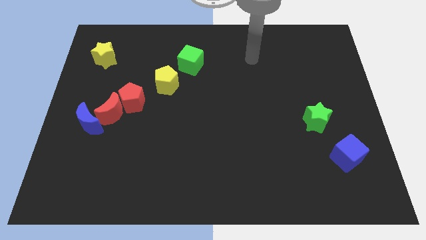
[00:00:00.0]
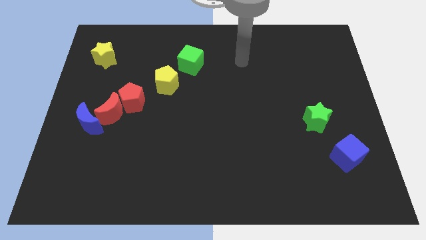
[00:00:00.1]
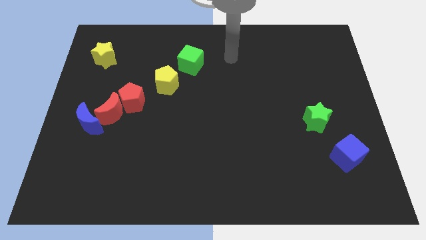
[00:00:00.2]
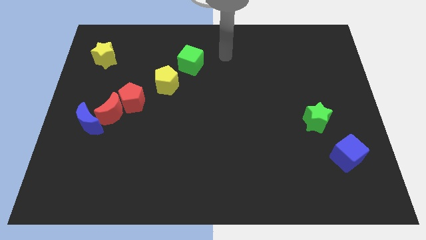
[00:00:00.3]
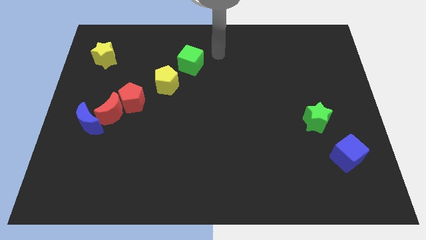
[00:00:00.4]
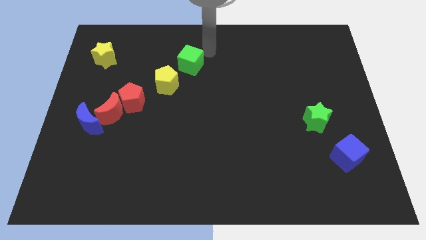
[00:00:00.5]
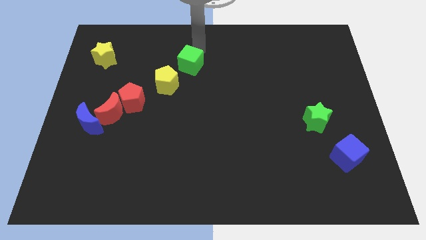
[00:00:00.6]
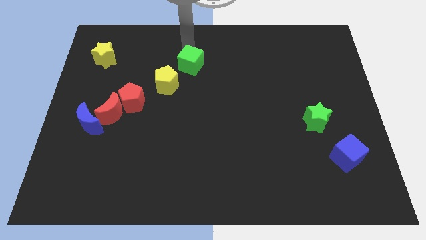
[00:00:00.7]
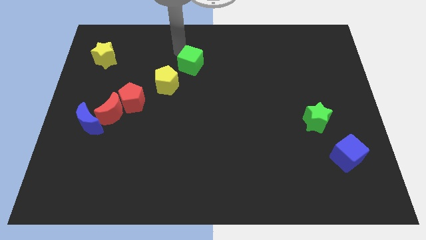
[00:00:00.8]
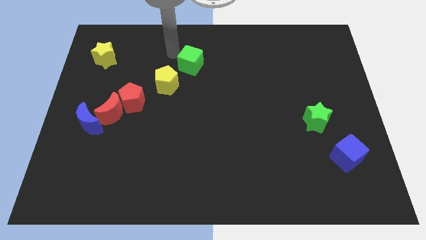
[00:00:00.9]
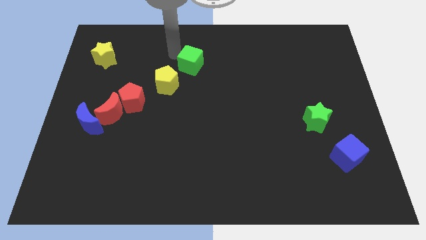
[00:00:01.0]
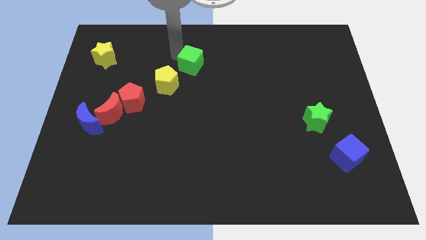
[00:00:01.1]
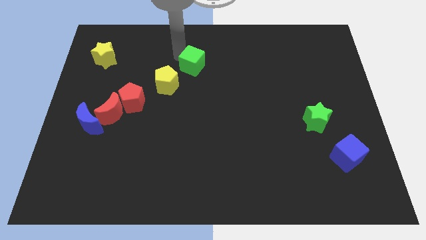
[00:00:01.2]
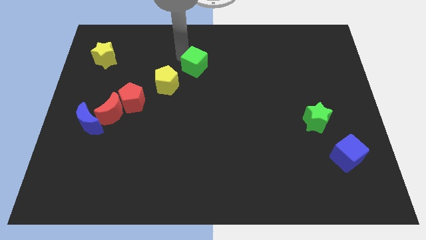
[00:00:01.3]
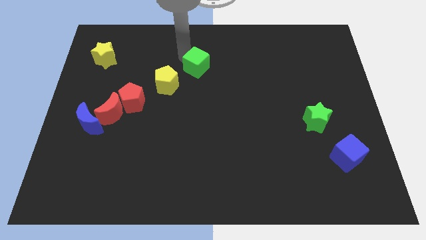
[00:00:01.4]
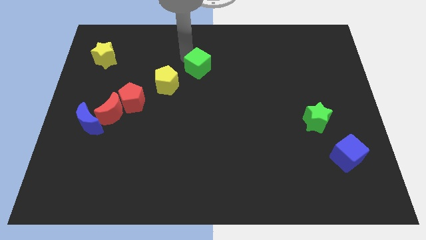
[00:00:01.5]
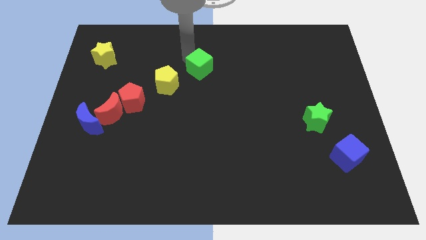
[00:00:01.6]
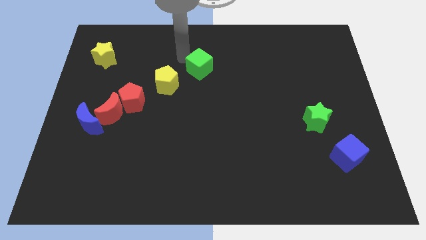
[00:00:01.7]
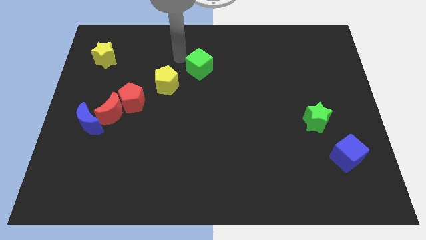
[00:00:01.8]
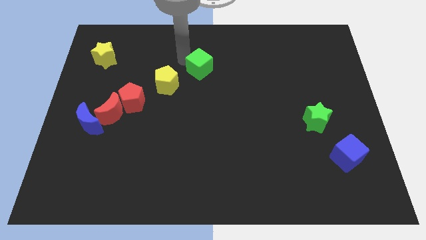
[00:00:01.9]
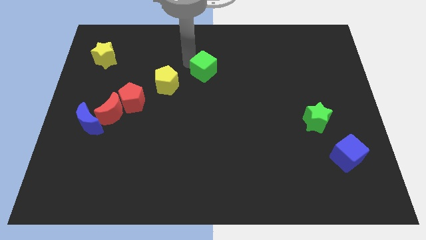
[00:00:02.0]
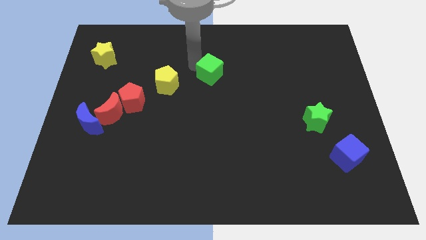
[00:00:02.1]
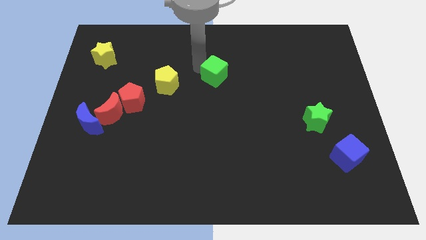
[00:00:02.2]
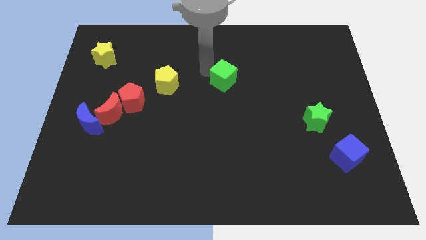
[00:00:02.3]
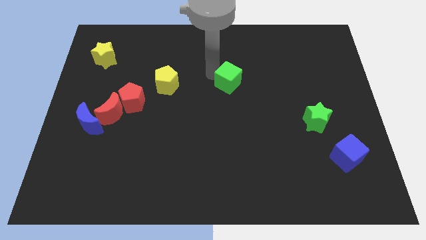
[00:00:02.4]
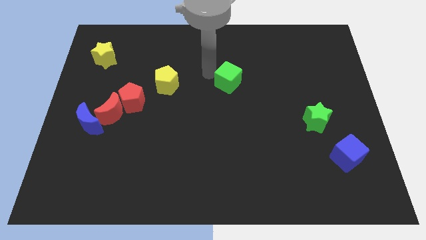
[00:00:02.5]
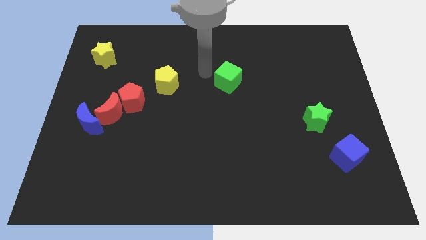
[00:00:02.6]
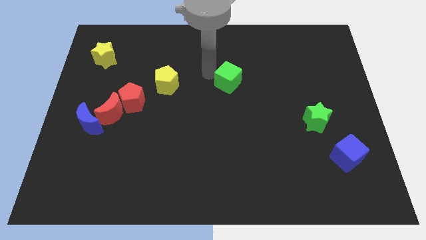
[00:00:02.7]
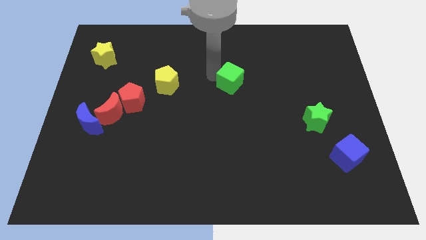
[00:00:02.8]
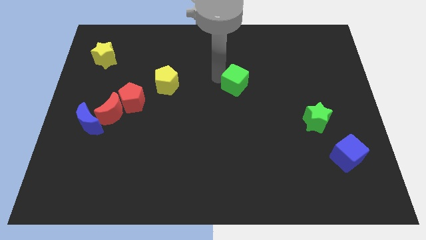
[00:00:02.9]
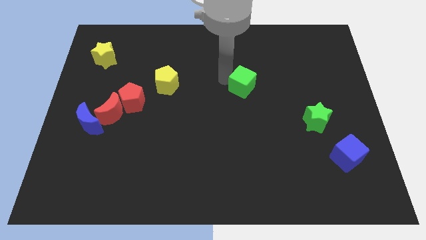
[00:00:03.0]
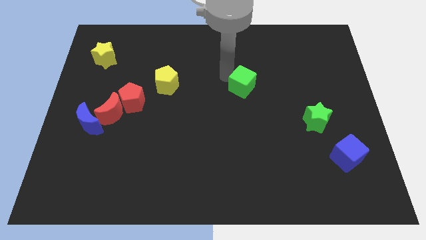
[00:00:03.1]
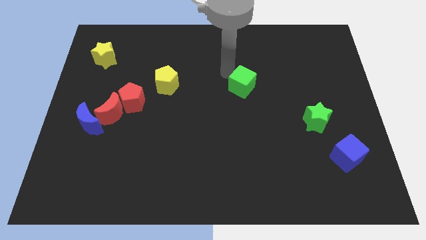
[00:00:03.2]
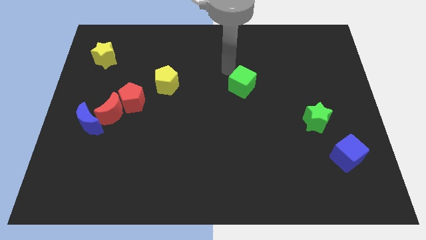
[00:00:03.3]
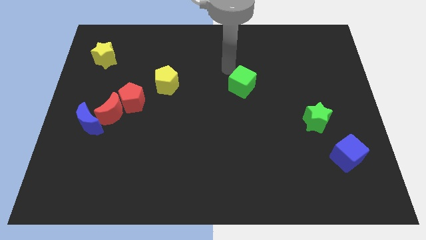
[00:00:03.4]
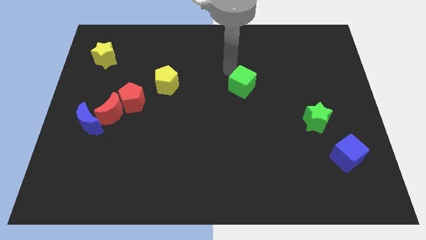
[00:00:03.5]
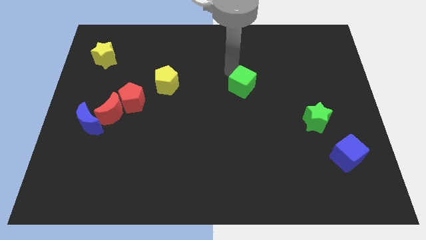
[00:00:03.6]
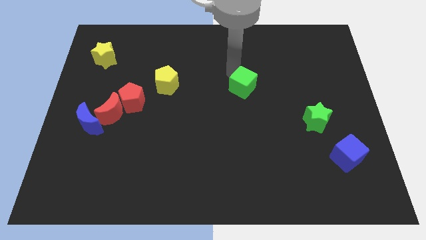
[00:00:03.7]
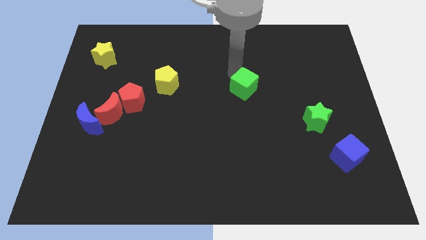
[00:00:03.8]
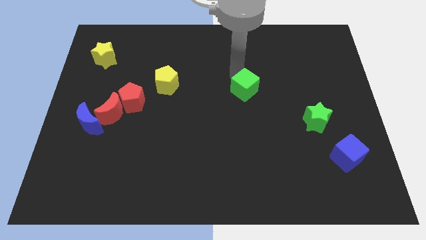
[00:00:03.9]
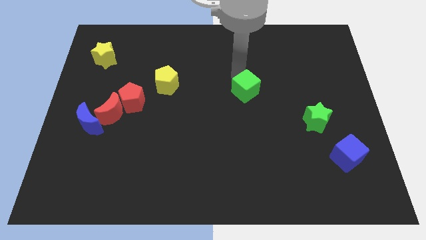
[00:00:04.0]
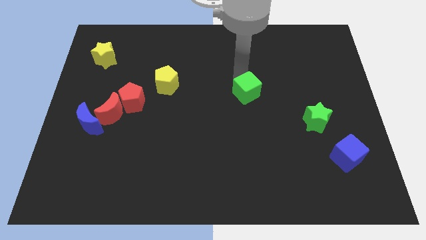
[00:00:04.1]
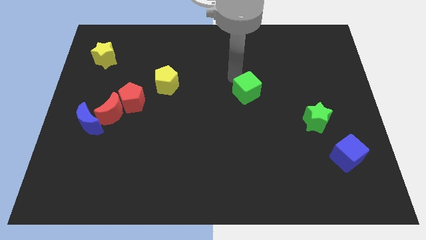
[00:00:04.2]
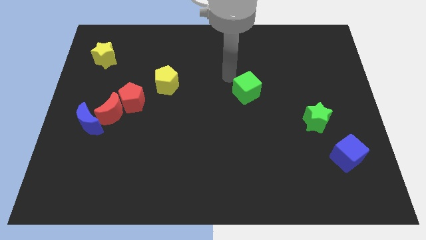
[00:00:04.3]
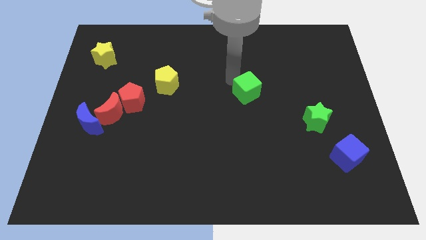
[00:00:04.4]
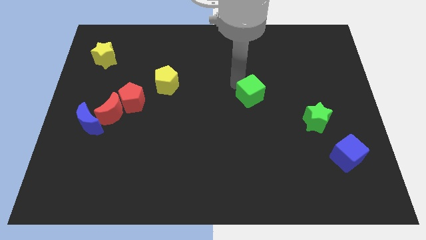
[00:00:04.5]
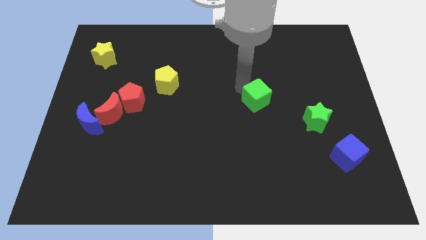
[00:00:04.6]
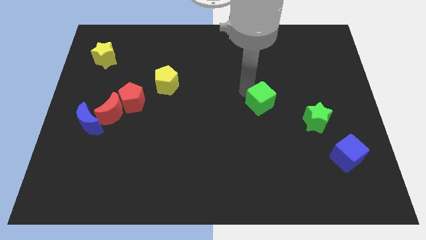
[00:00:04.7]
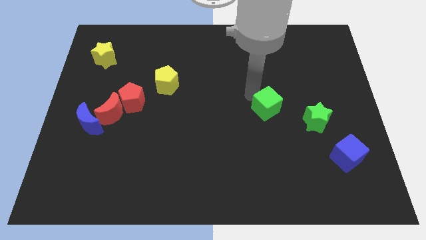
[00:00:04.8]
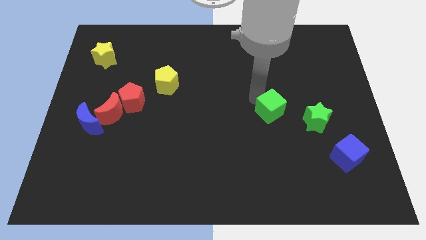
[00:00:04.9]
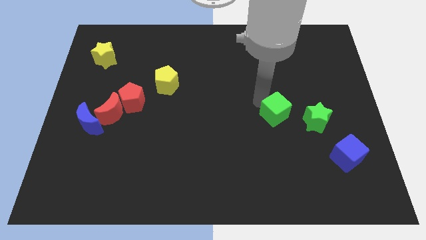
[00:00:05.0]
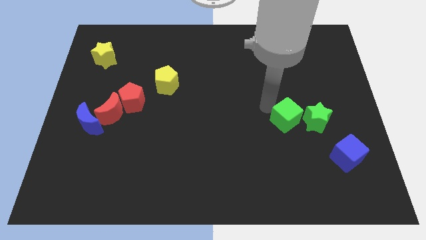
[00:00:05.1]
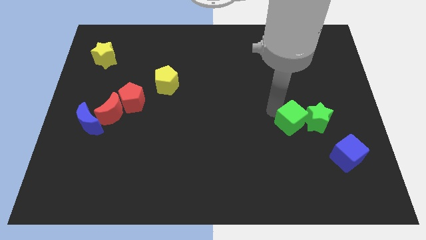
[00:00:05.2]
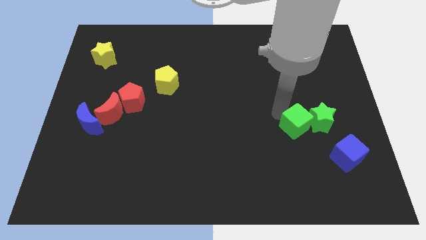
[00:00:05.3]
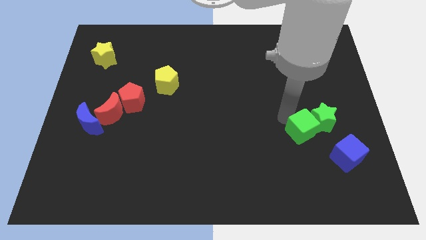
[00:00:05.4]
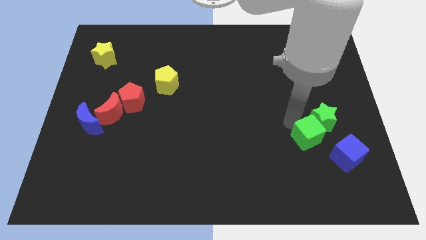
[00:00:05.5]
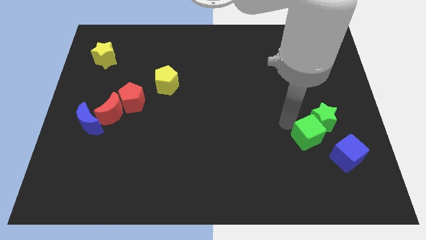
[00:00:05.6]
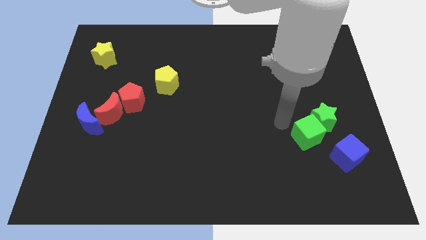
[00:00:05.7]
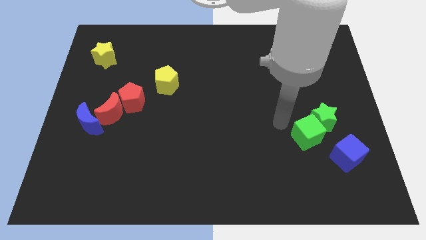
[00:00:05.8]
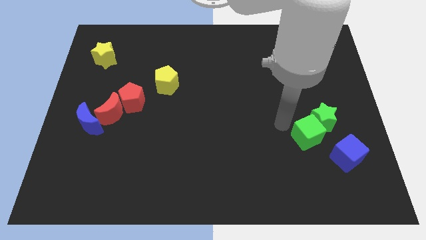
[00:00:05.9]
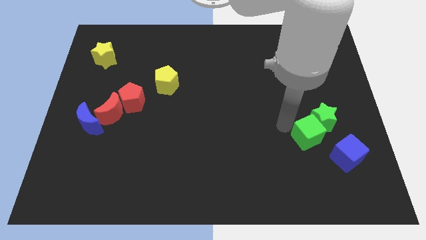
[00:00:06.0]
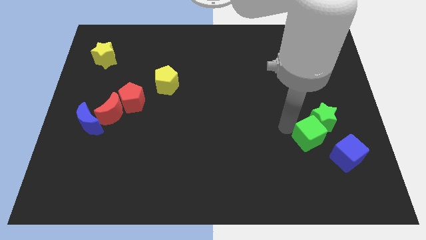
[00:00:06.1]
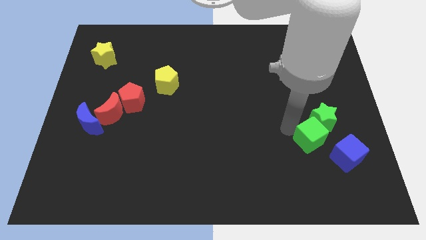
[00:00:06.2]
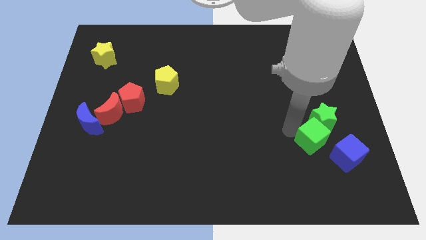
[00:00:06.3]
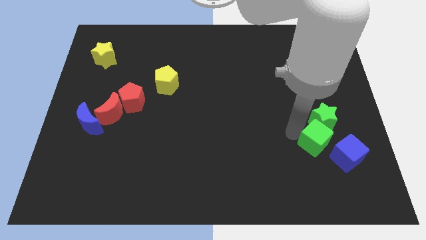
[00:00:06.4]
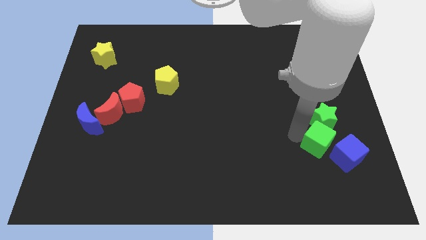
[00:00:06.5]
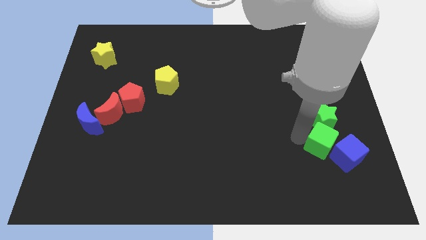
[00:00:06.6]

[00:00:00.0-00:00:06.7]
push the green cube next to the blue cube

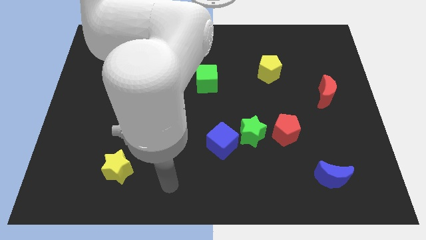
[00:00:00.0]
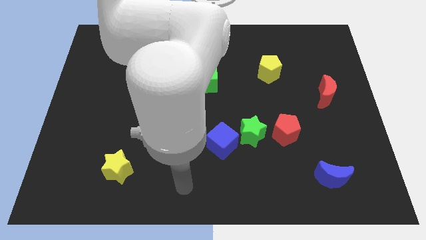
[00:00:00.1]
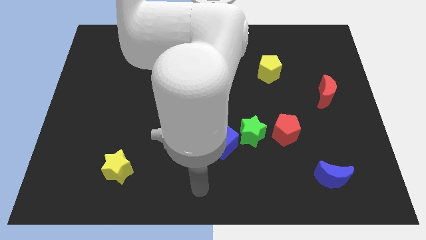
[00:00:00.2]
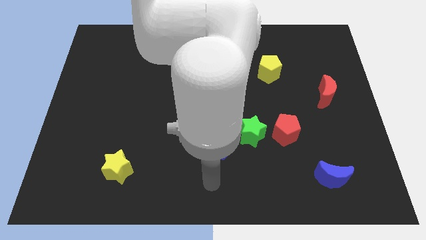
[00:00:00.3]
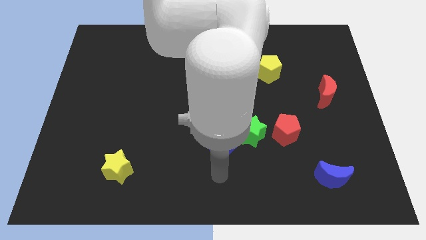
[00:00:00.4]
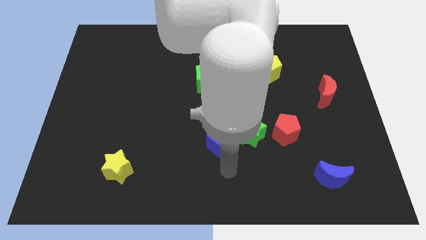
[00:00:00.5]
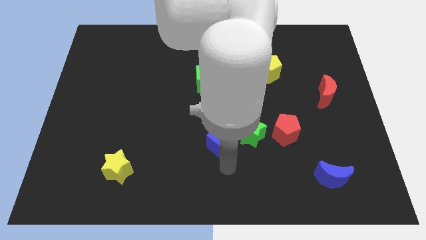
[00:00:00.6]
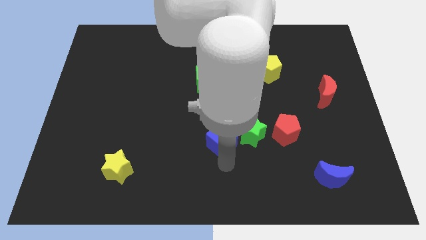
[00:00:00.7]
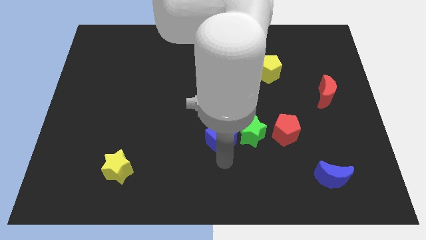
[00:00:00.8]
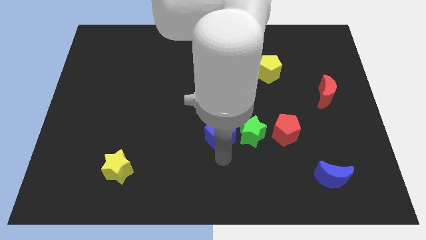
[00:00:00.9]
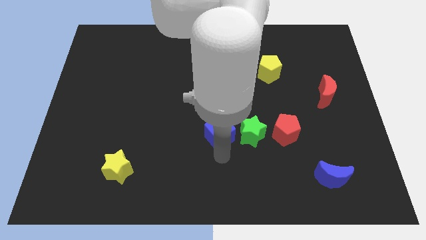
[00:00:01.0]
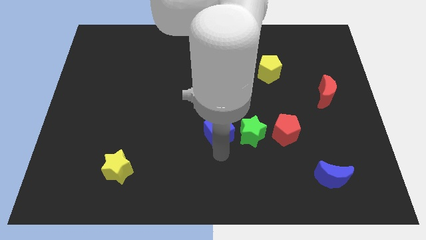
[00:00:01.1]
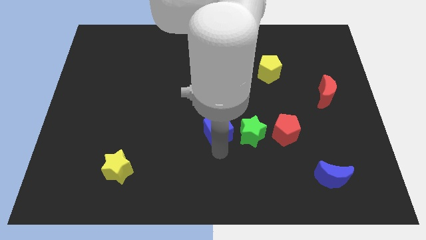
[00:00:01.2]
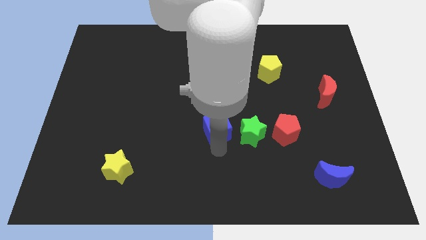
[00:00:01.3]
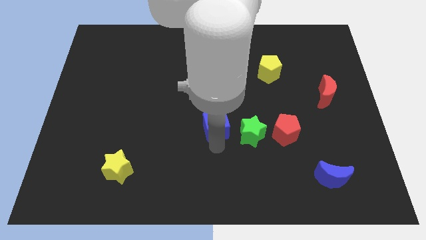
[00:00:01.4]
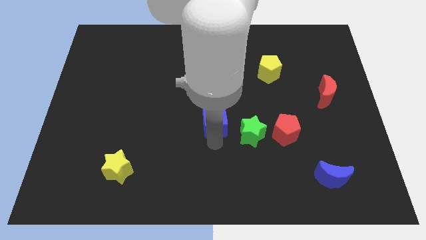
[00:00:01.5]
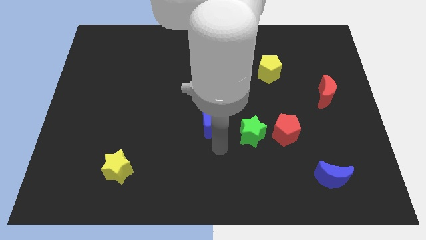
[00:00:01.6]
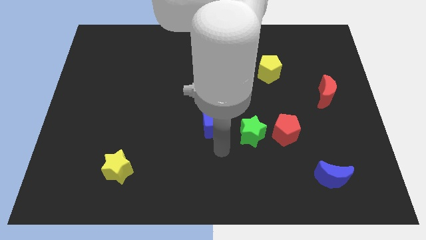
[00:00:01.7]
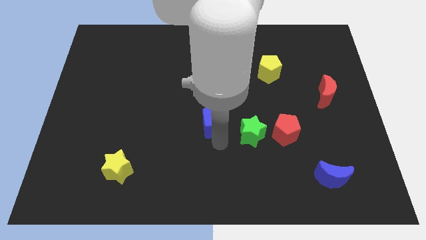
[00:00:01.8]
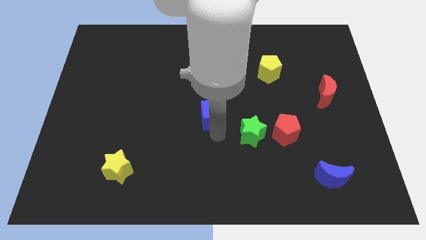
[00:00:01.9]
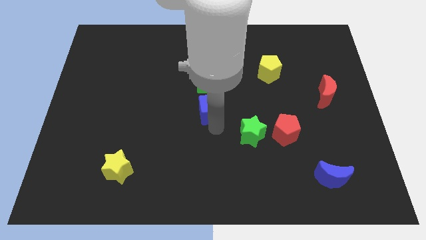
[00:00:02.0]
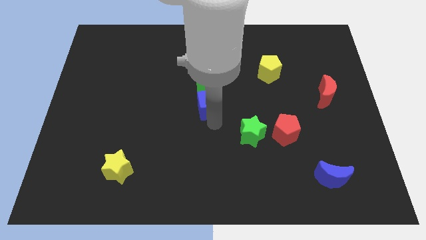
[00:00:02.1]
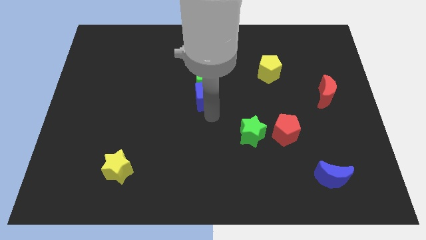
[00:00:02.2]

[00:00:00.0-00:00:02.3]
push the blue cube towards the green cube
